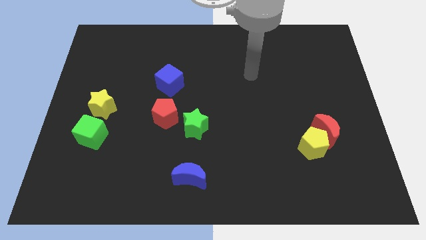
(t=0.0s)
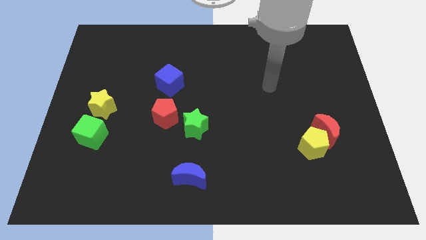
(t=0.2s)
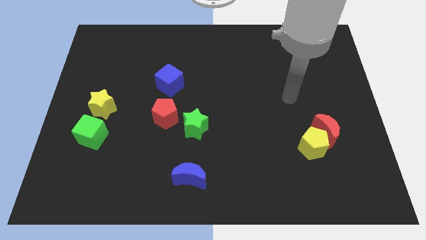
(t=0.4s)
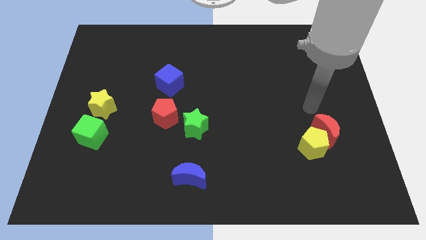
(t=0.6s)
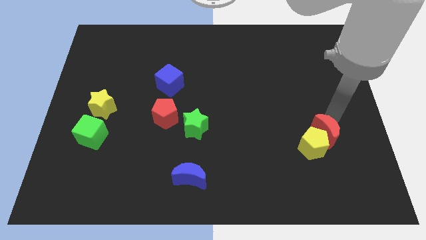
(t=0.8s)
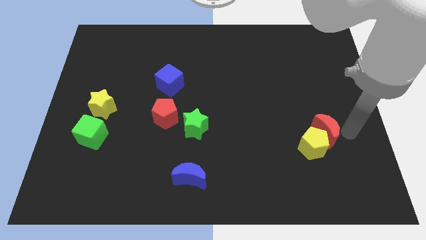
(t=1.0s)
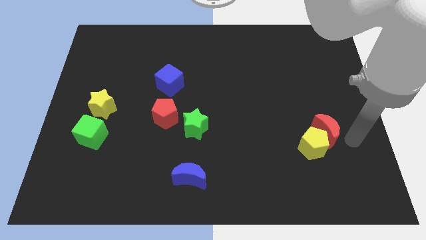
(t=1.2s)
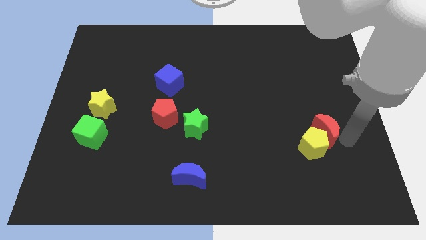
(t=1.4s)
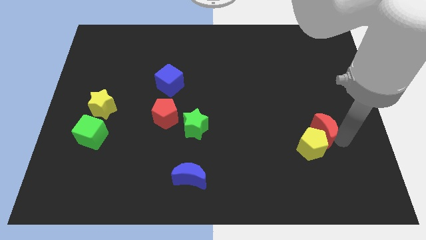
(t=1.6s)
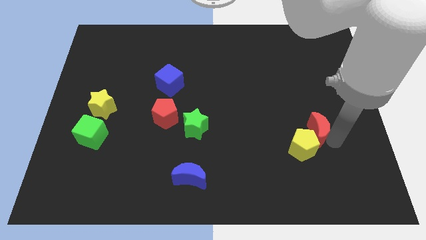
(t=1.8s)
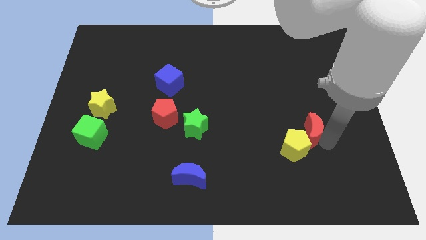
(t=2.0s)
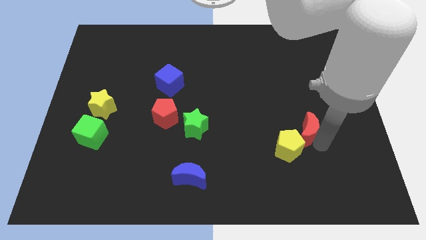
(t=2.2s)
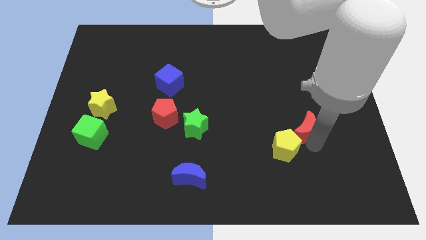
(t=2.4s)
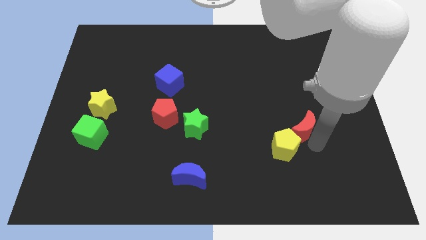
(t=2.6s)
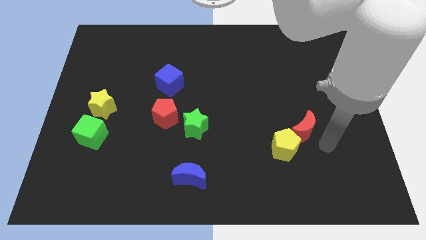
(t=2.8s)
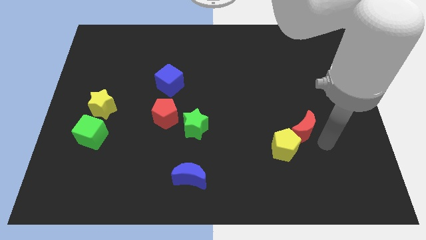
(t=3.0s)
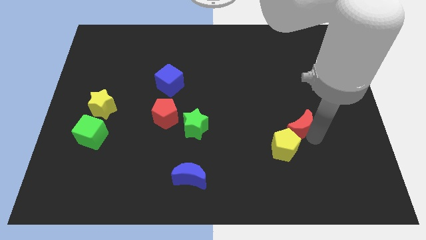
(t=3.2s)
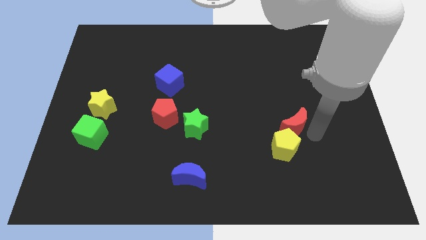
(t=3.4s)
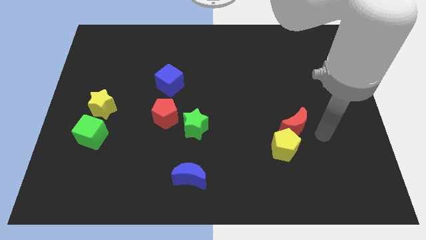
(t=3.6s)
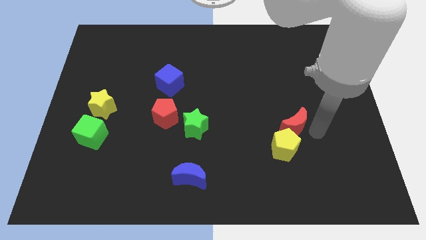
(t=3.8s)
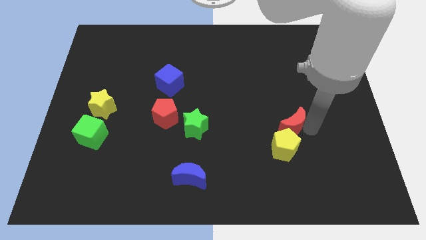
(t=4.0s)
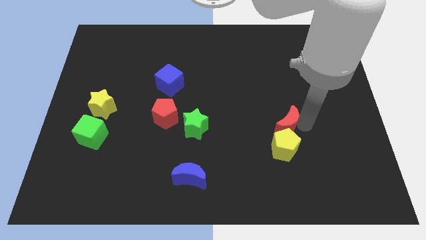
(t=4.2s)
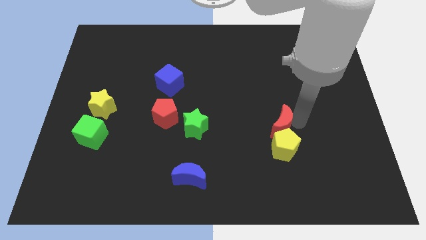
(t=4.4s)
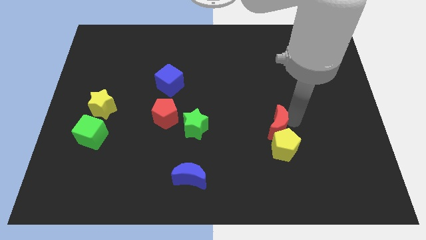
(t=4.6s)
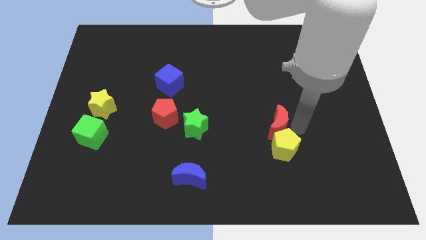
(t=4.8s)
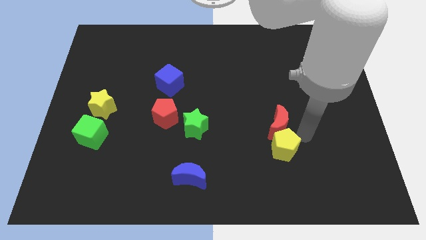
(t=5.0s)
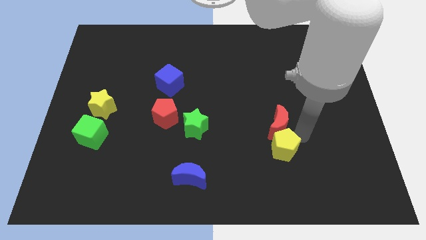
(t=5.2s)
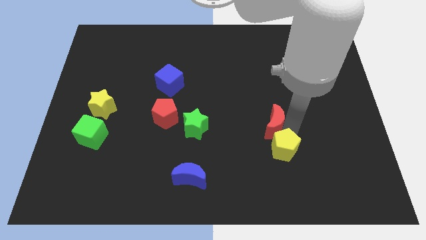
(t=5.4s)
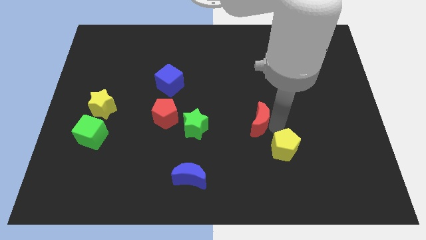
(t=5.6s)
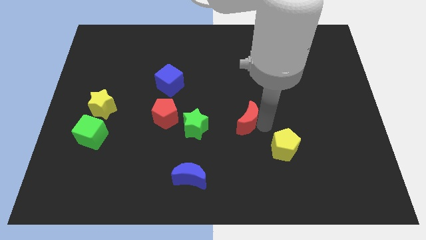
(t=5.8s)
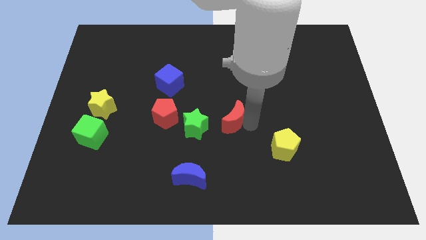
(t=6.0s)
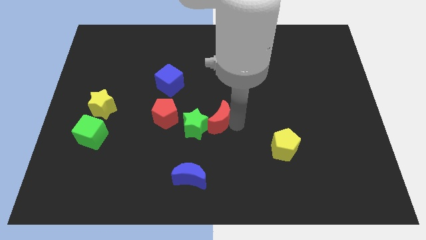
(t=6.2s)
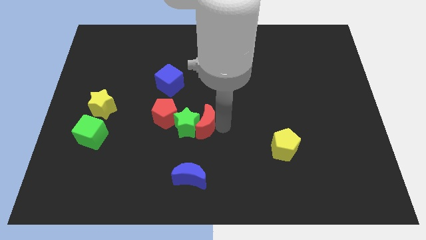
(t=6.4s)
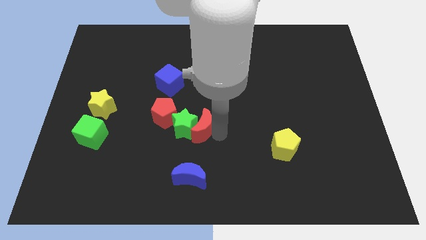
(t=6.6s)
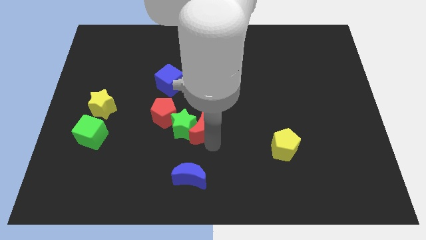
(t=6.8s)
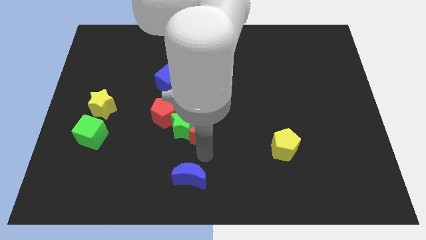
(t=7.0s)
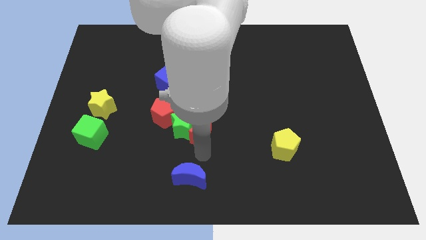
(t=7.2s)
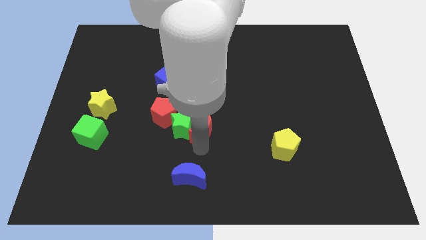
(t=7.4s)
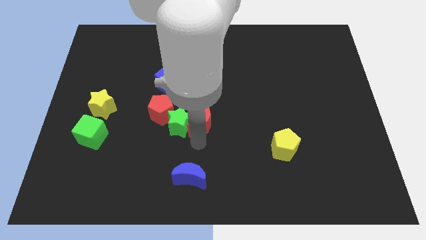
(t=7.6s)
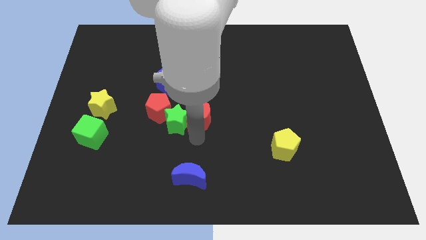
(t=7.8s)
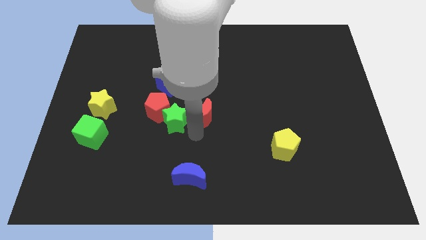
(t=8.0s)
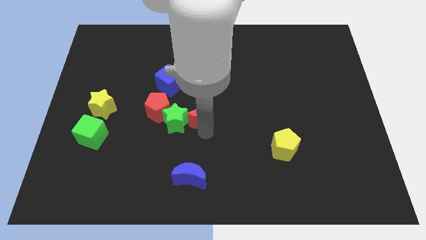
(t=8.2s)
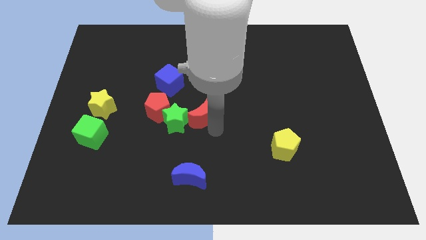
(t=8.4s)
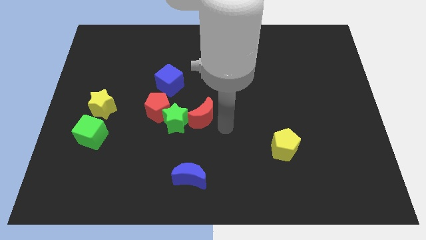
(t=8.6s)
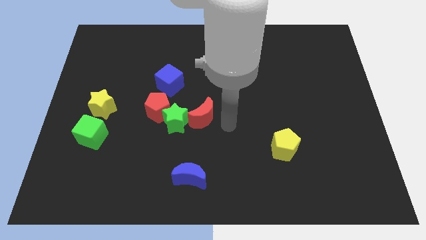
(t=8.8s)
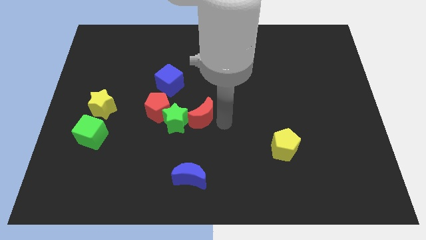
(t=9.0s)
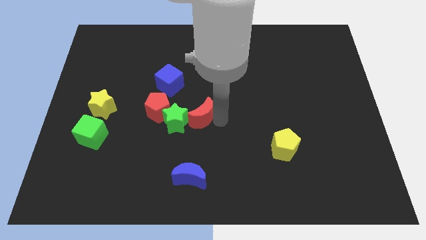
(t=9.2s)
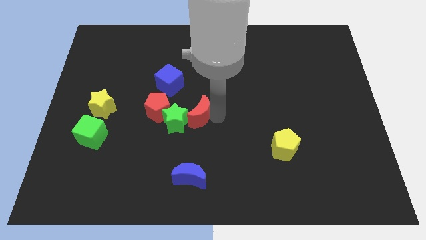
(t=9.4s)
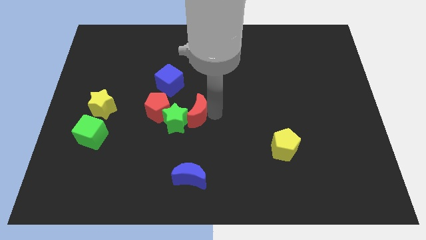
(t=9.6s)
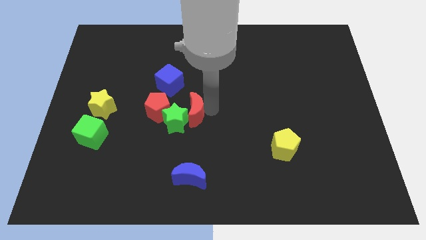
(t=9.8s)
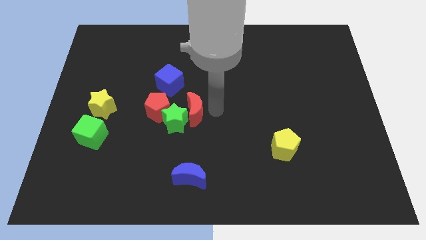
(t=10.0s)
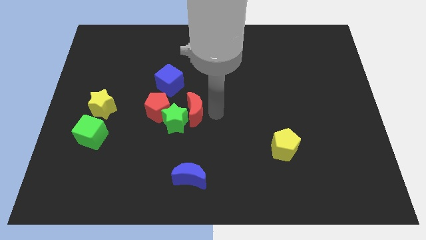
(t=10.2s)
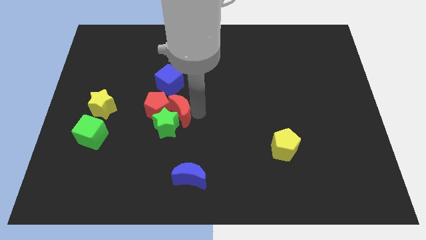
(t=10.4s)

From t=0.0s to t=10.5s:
put the red moon next to the red pentagon

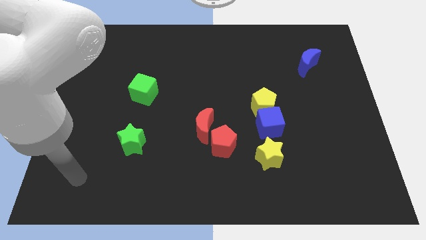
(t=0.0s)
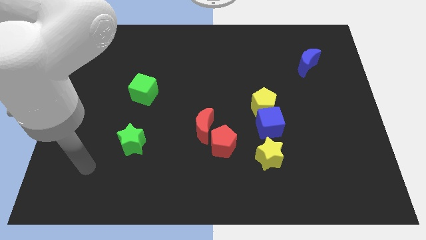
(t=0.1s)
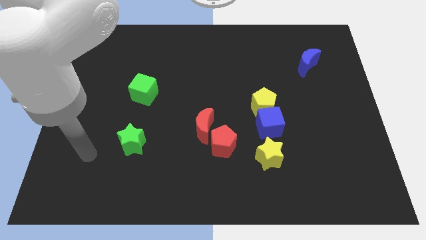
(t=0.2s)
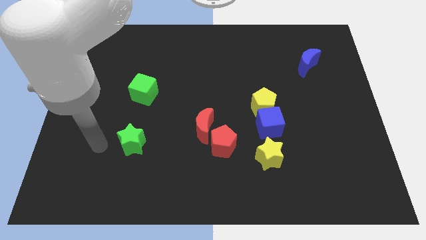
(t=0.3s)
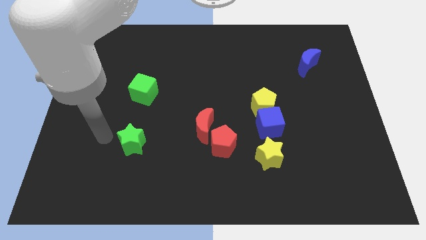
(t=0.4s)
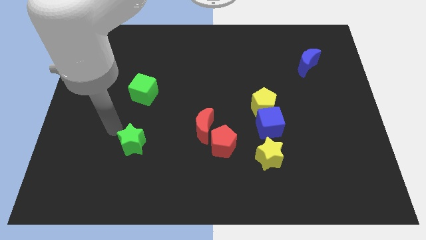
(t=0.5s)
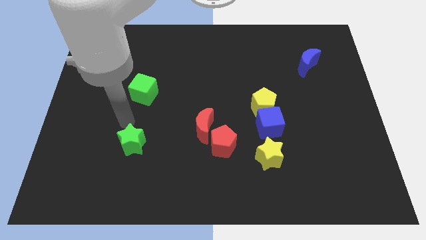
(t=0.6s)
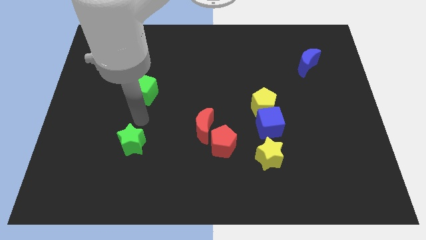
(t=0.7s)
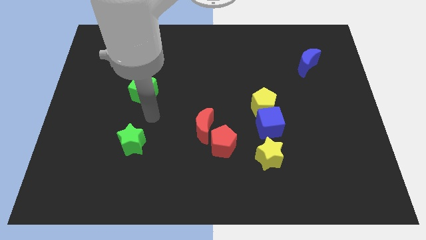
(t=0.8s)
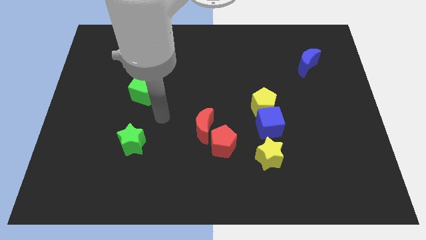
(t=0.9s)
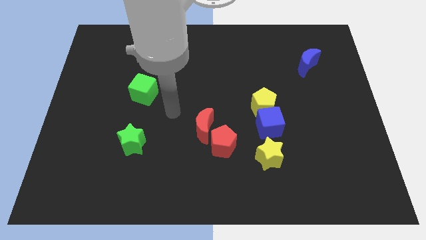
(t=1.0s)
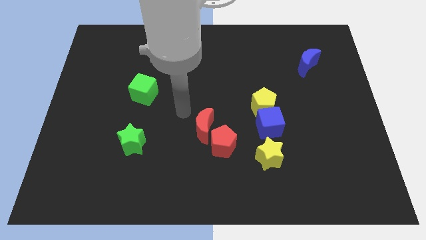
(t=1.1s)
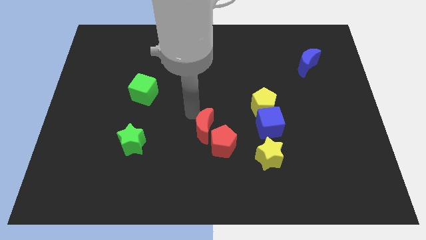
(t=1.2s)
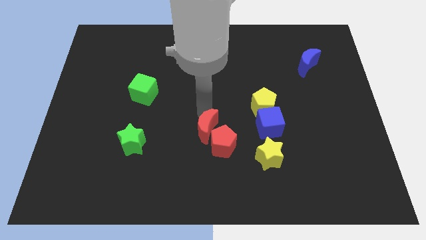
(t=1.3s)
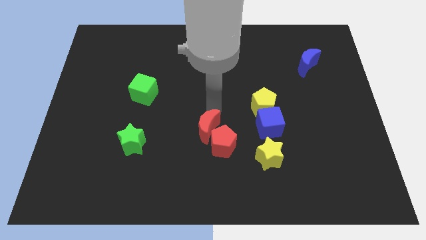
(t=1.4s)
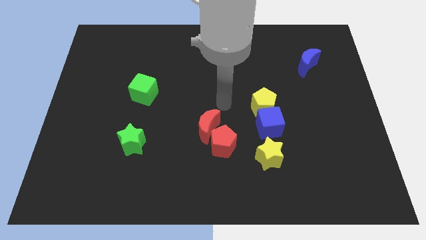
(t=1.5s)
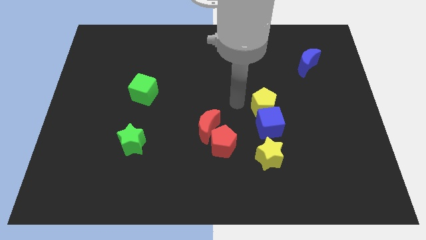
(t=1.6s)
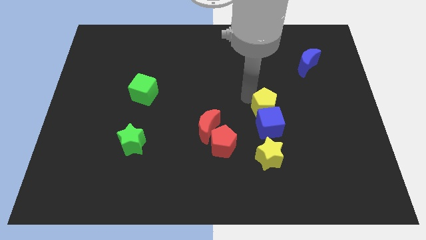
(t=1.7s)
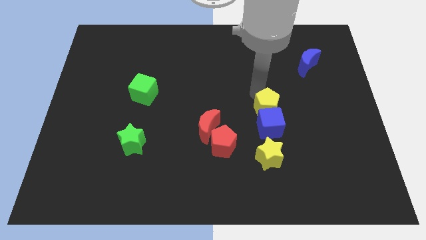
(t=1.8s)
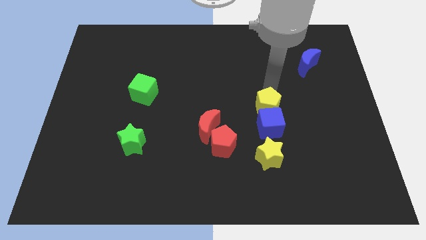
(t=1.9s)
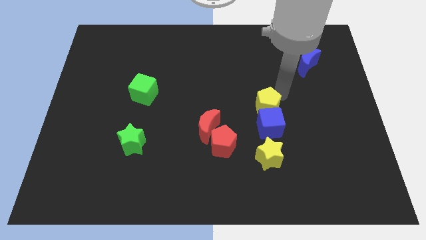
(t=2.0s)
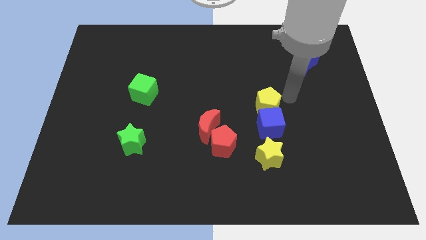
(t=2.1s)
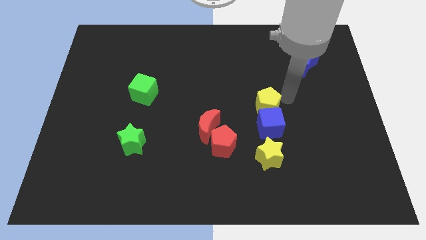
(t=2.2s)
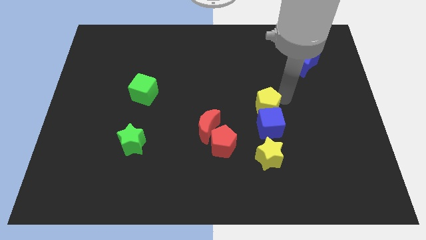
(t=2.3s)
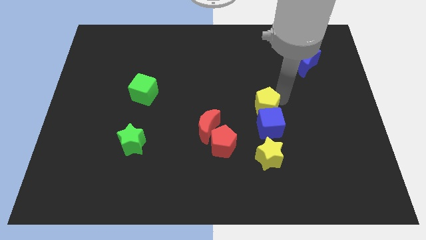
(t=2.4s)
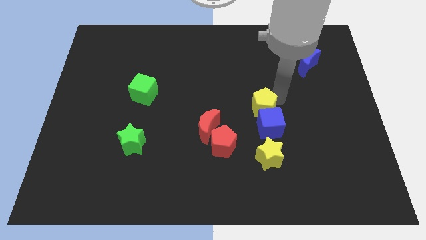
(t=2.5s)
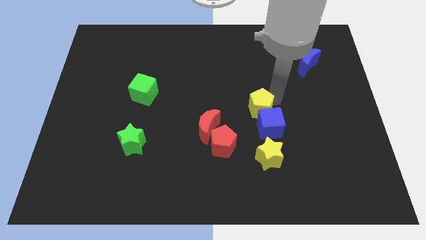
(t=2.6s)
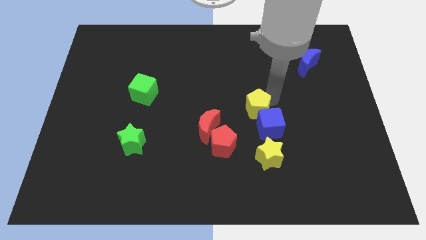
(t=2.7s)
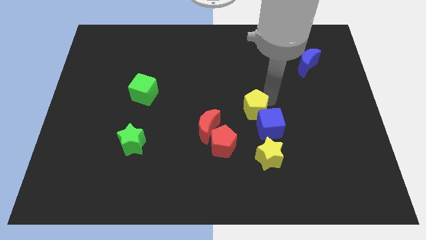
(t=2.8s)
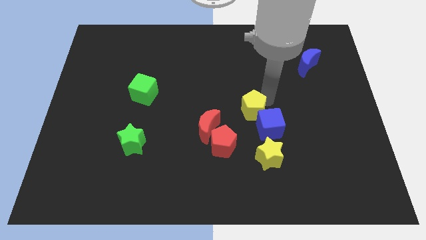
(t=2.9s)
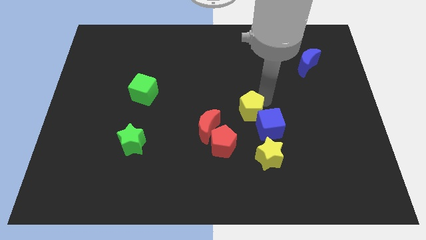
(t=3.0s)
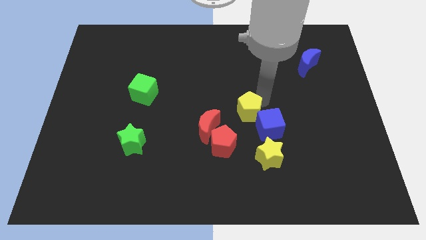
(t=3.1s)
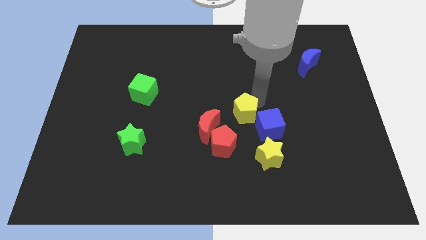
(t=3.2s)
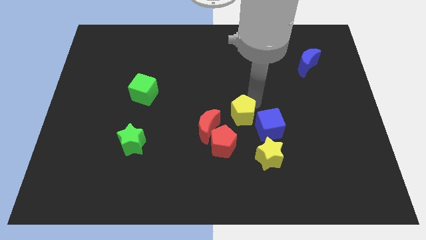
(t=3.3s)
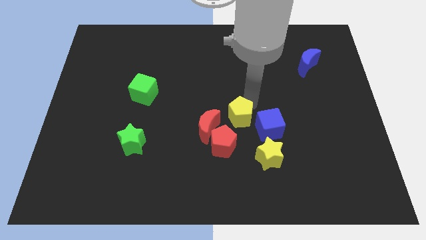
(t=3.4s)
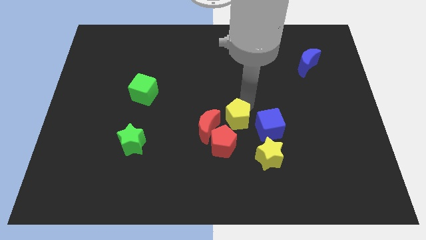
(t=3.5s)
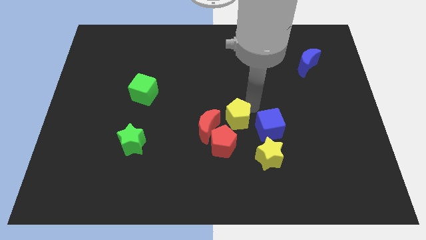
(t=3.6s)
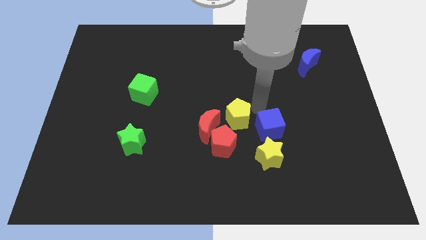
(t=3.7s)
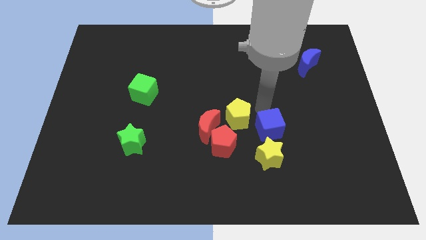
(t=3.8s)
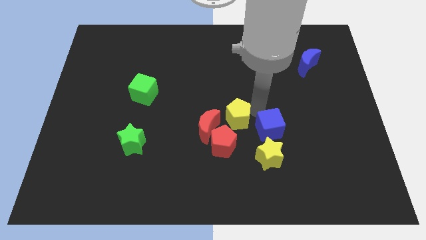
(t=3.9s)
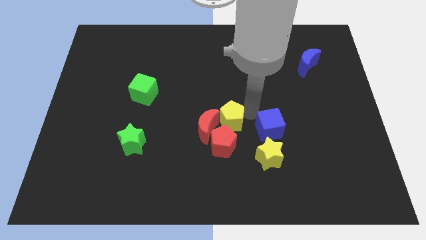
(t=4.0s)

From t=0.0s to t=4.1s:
move the yellow pentagon to the red moon
